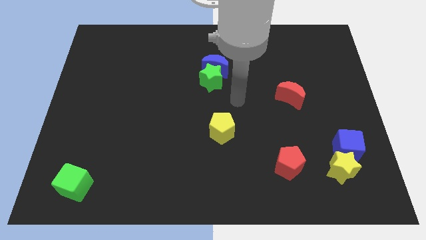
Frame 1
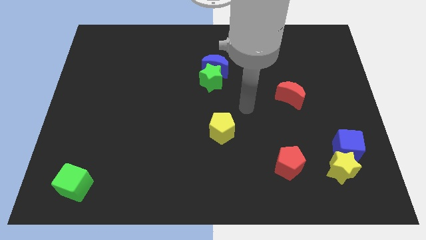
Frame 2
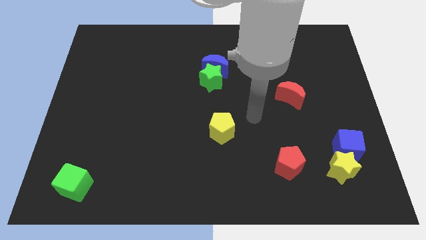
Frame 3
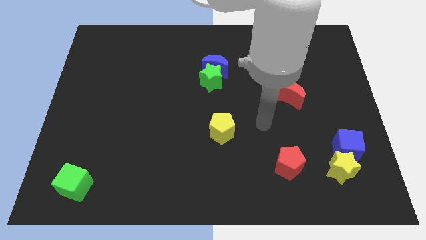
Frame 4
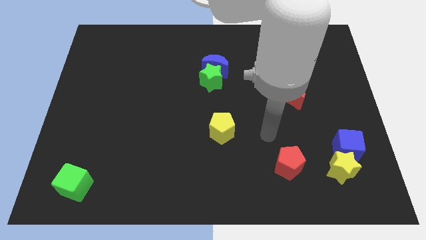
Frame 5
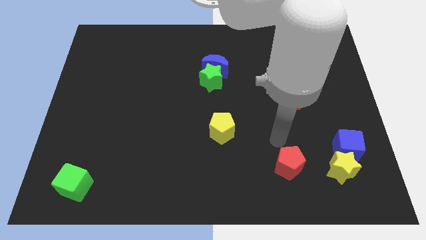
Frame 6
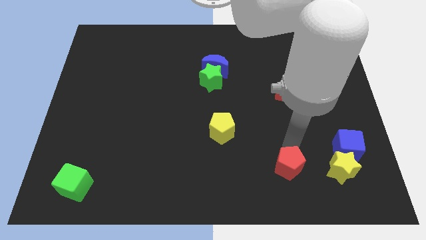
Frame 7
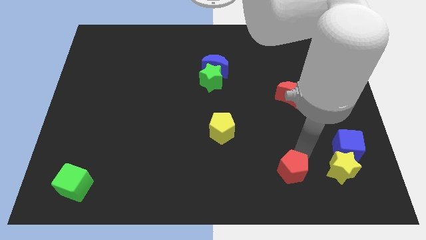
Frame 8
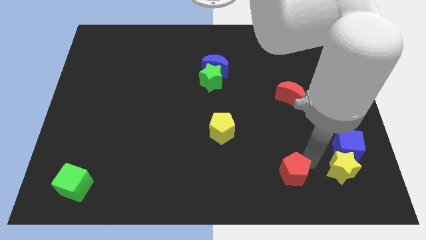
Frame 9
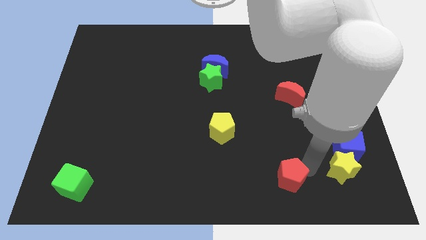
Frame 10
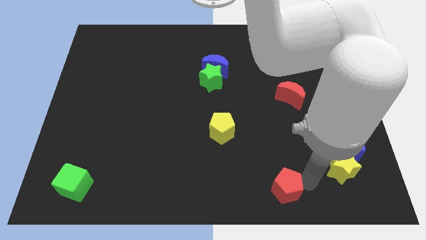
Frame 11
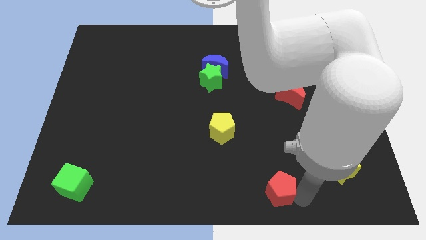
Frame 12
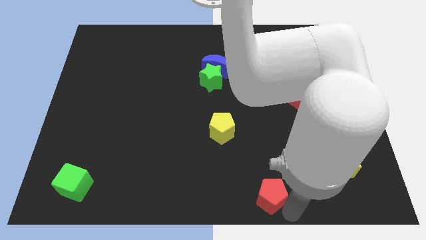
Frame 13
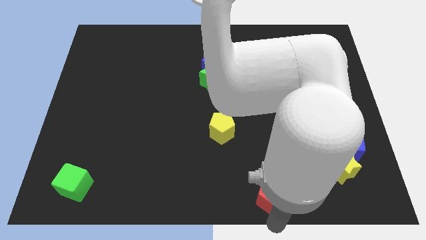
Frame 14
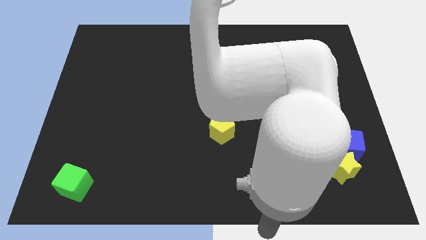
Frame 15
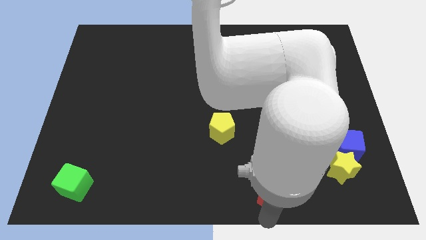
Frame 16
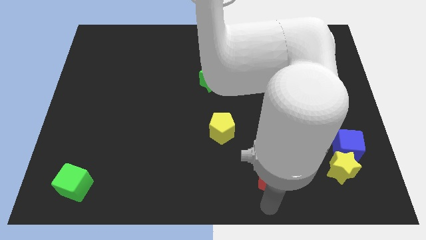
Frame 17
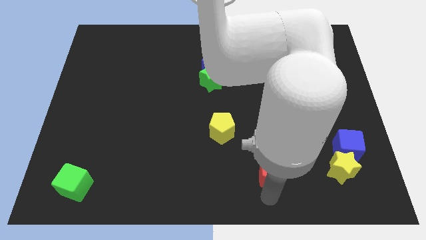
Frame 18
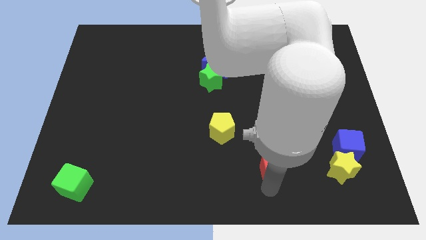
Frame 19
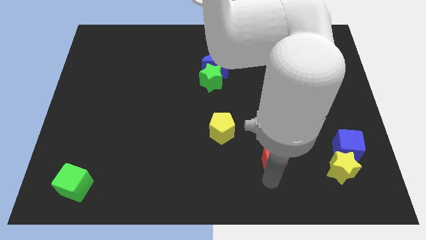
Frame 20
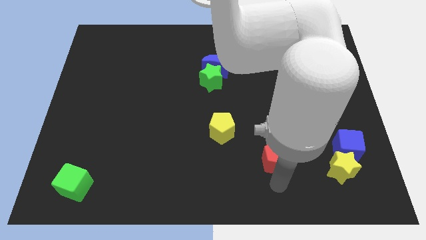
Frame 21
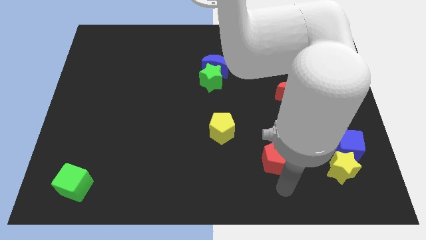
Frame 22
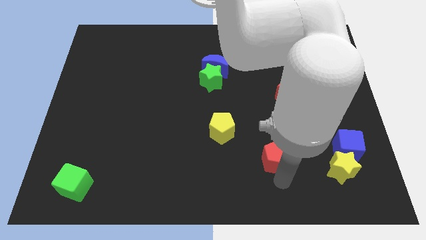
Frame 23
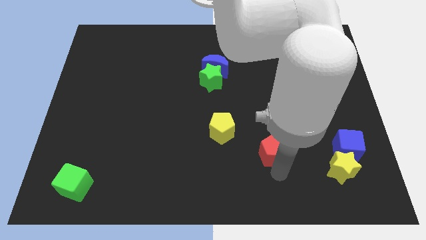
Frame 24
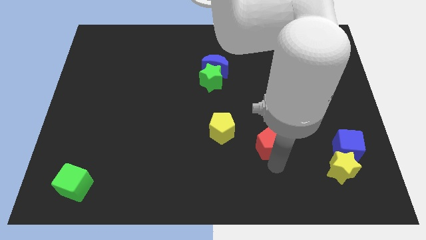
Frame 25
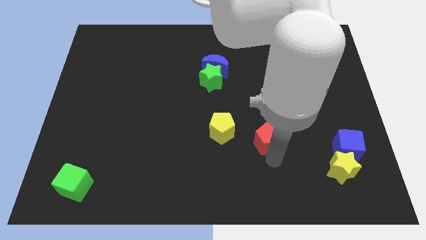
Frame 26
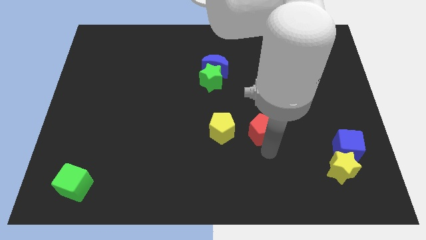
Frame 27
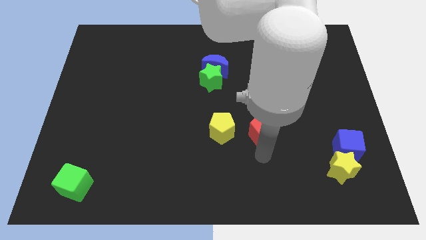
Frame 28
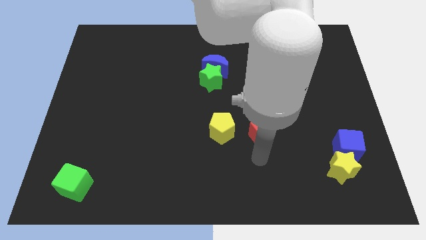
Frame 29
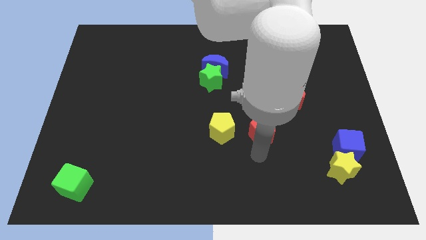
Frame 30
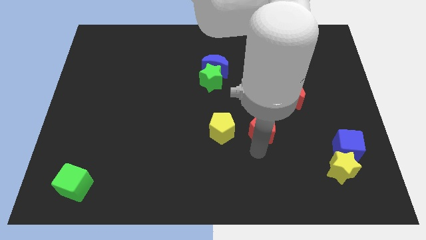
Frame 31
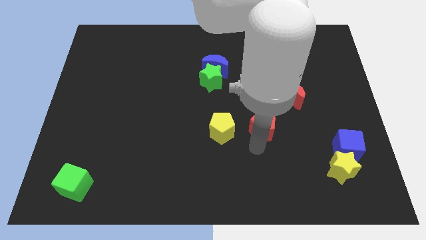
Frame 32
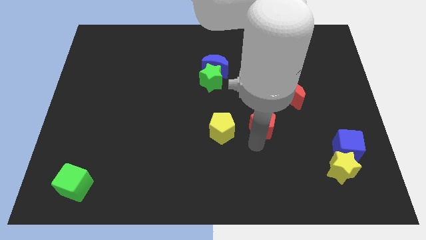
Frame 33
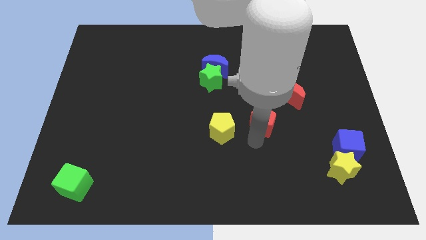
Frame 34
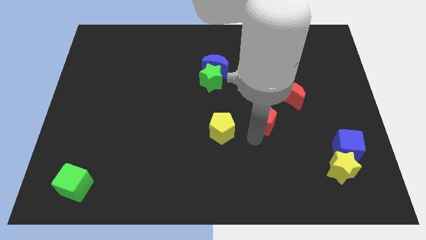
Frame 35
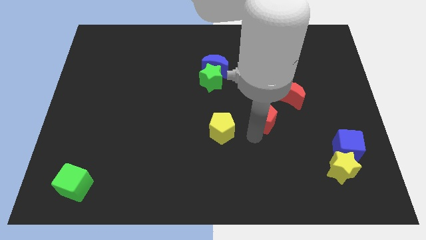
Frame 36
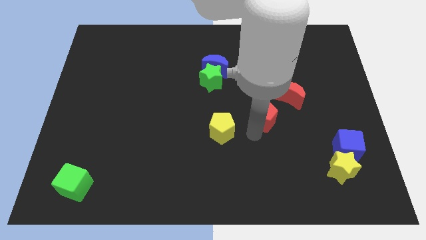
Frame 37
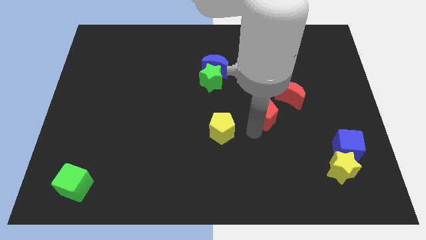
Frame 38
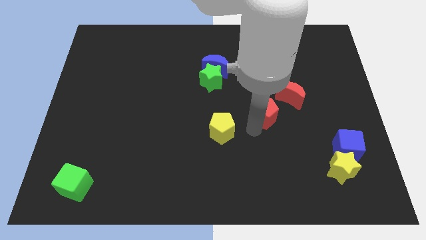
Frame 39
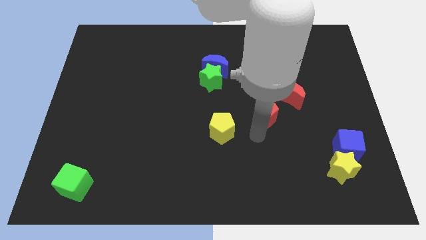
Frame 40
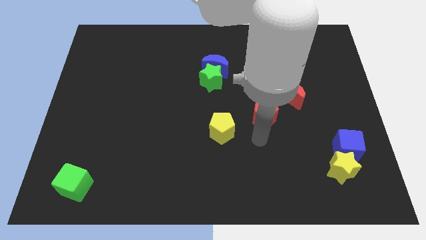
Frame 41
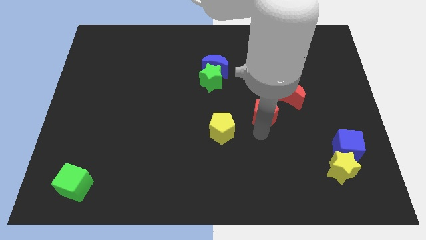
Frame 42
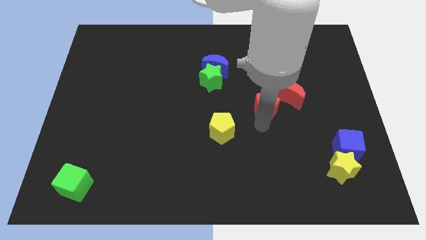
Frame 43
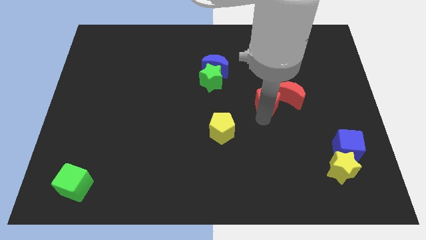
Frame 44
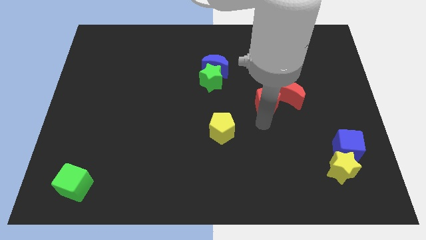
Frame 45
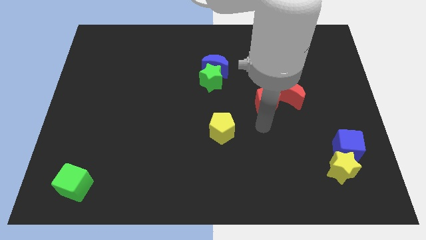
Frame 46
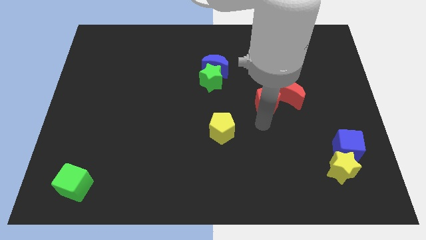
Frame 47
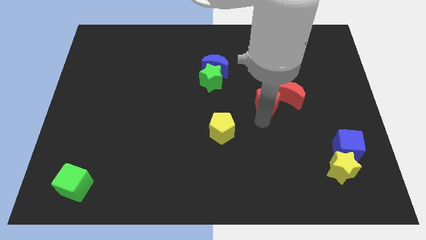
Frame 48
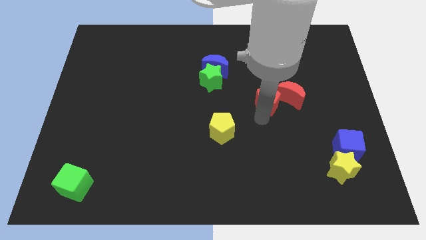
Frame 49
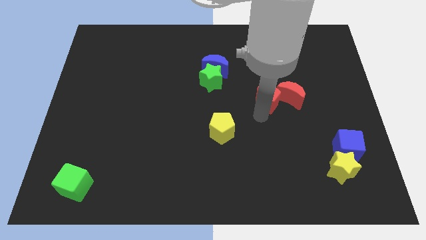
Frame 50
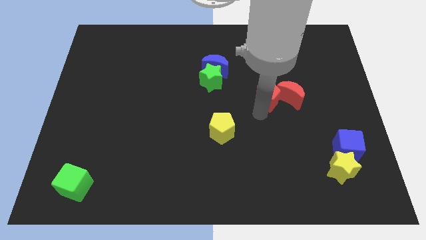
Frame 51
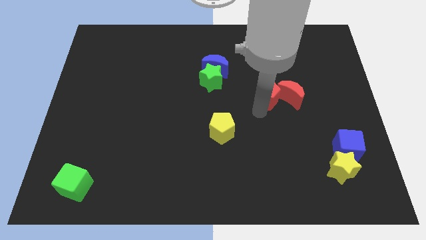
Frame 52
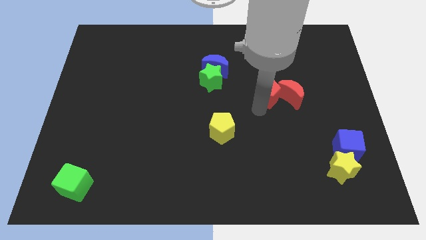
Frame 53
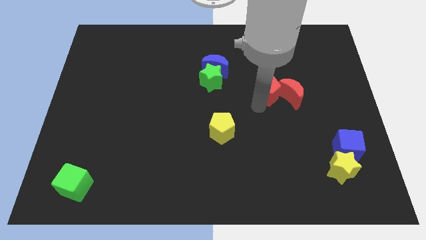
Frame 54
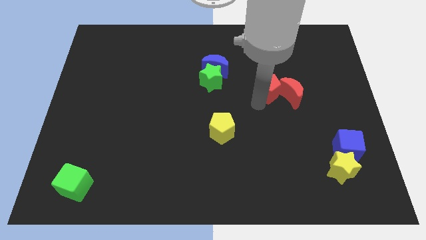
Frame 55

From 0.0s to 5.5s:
push the red pentagon upwards

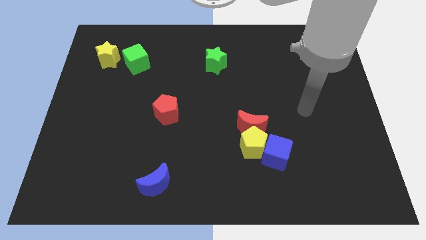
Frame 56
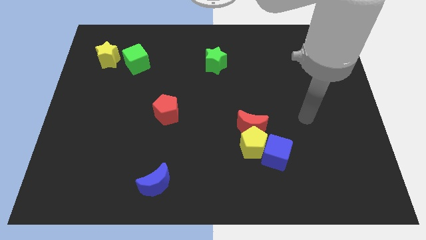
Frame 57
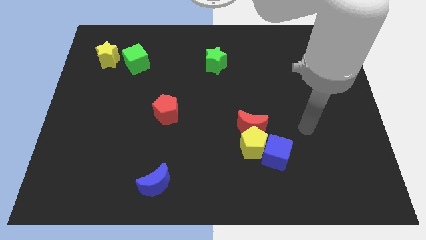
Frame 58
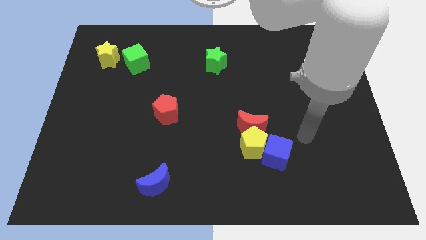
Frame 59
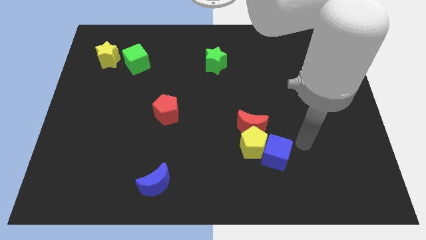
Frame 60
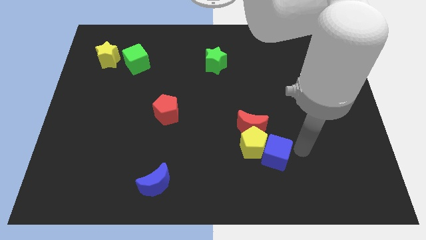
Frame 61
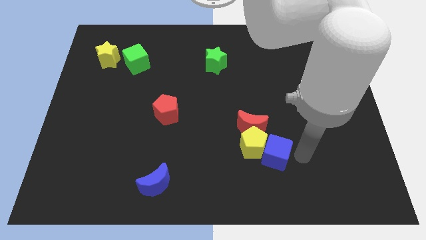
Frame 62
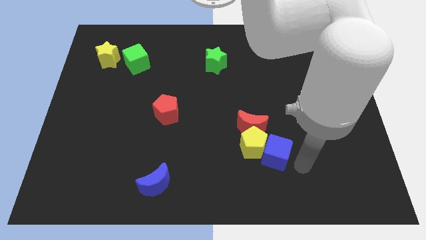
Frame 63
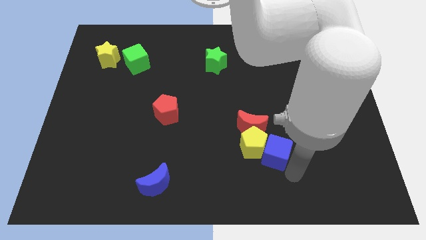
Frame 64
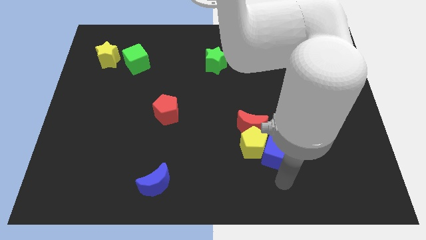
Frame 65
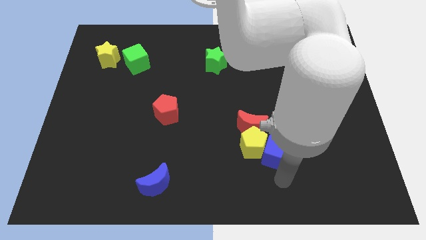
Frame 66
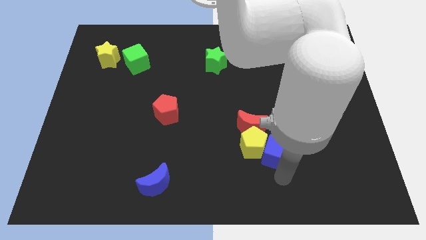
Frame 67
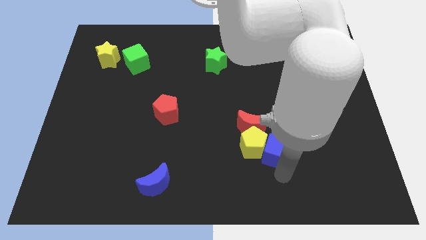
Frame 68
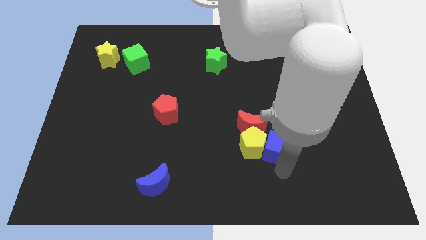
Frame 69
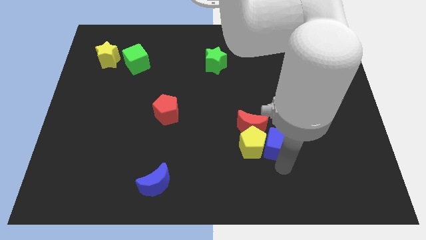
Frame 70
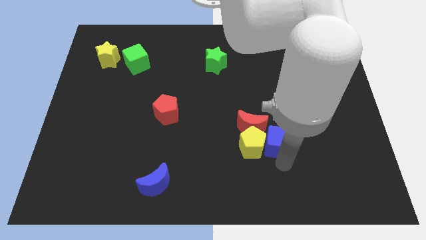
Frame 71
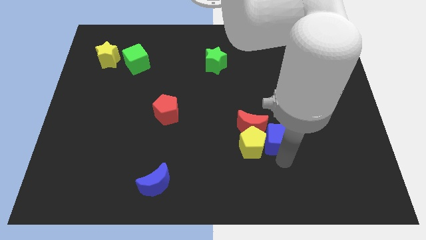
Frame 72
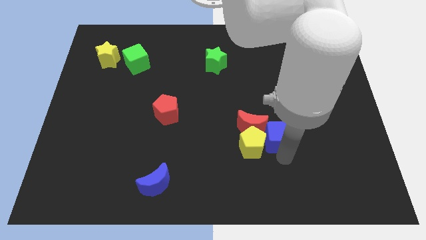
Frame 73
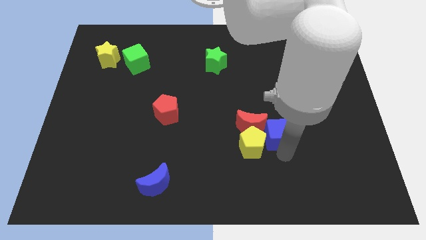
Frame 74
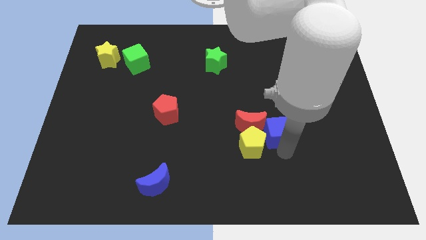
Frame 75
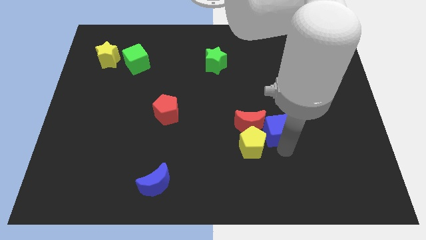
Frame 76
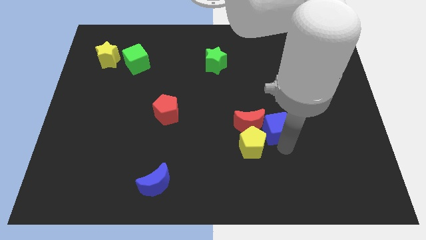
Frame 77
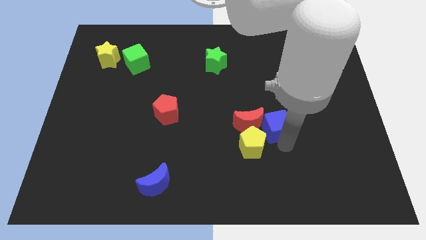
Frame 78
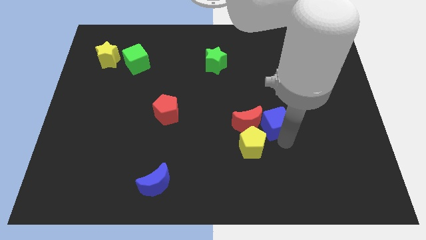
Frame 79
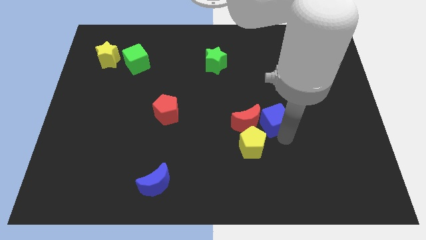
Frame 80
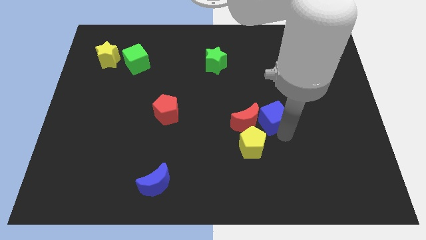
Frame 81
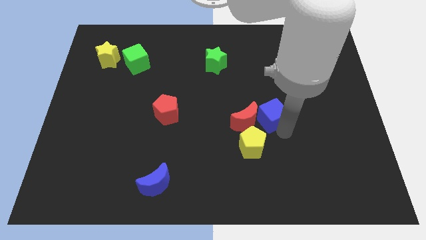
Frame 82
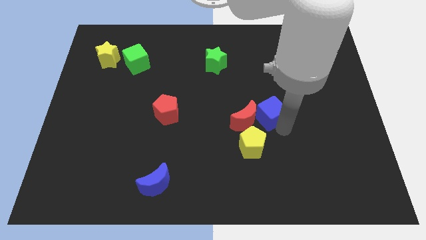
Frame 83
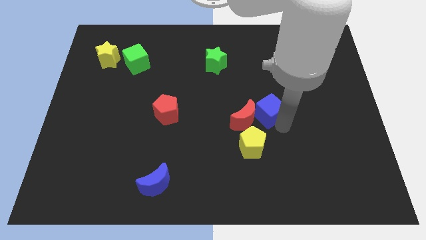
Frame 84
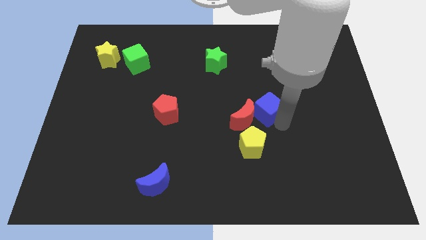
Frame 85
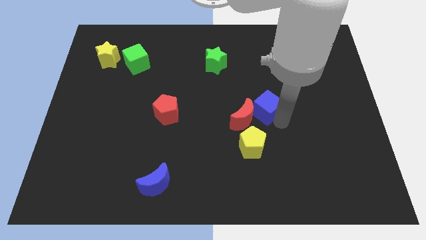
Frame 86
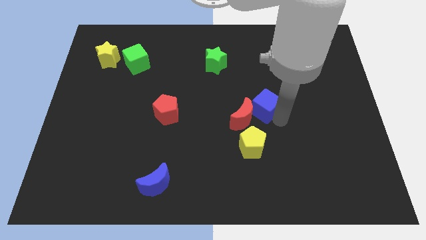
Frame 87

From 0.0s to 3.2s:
move the blue cube diagonally up and to the left somewhat
